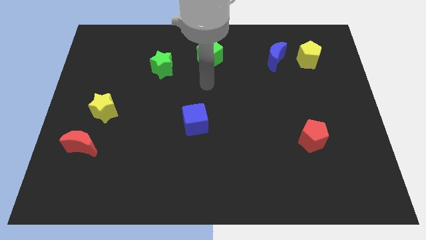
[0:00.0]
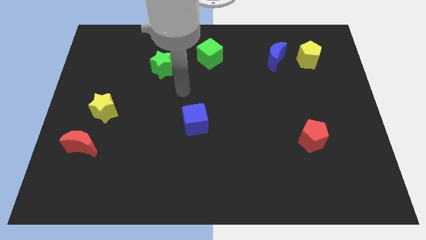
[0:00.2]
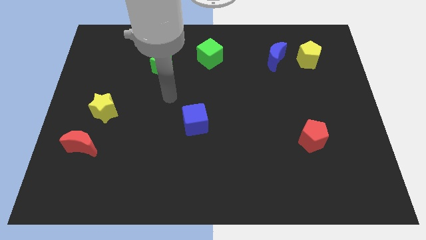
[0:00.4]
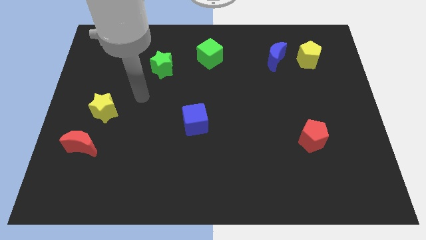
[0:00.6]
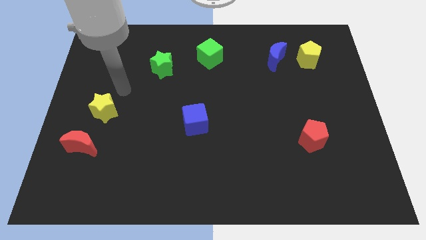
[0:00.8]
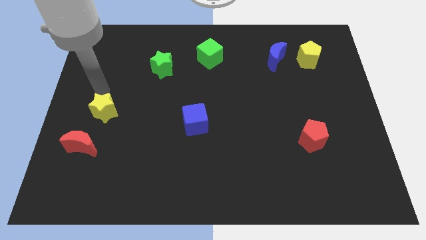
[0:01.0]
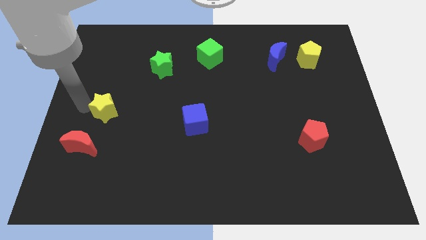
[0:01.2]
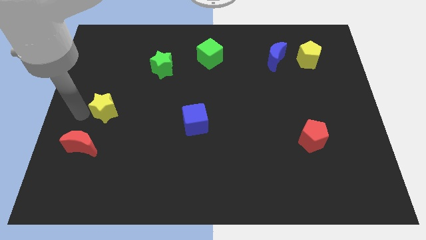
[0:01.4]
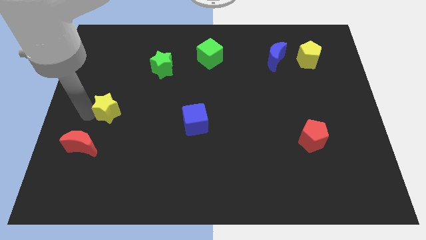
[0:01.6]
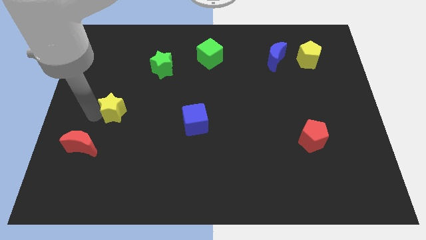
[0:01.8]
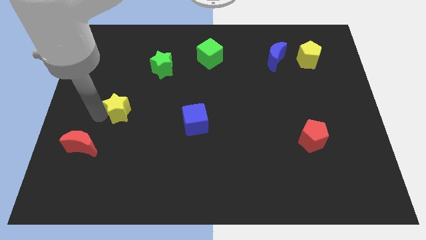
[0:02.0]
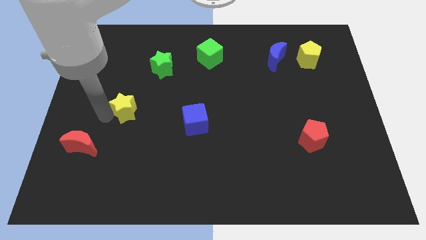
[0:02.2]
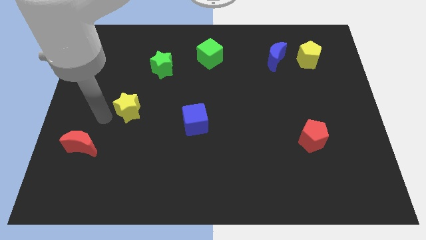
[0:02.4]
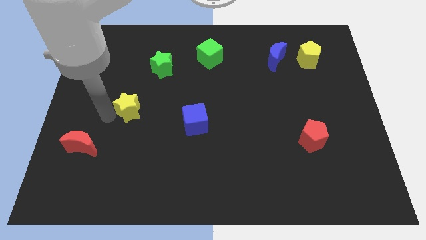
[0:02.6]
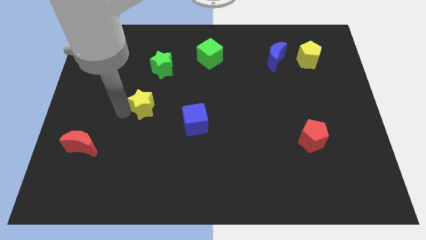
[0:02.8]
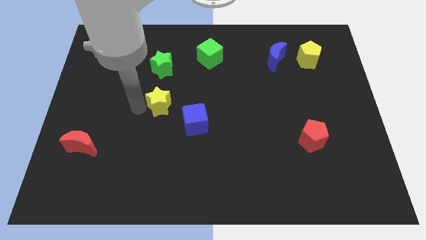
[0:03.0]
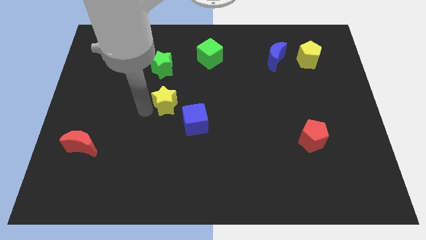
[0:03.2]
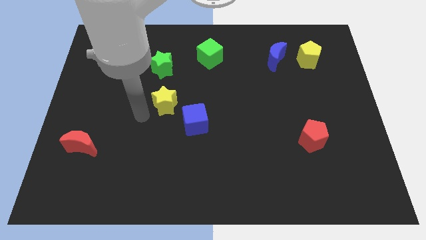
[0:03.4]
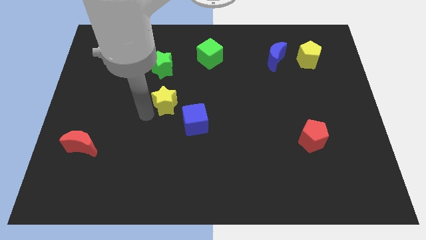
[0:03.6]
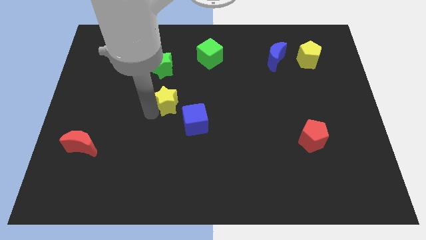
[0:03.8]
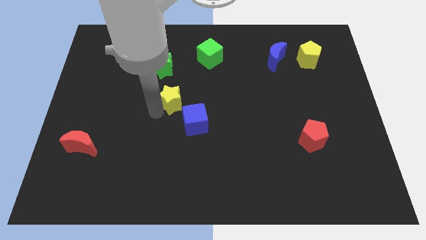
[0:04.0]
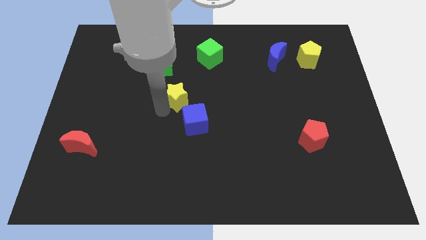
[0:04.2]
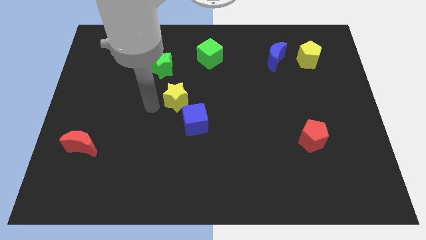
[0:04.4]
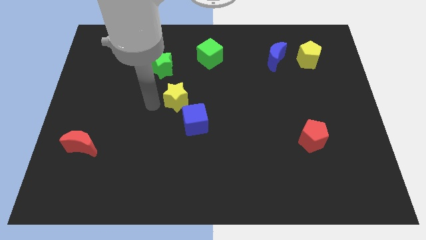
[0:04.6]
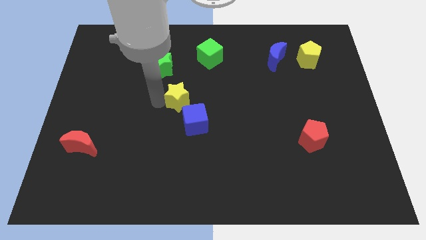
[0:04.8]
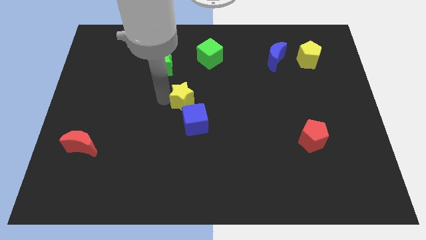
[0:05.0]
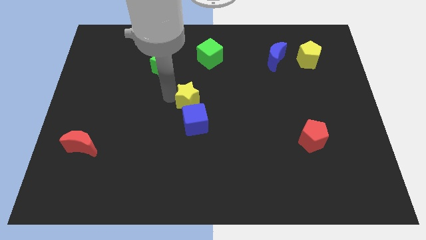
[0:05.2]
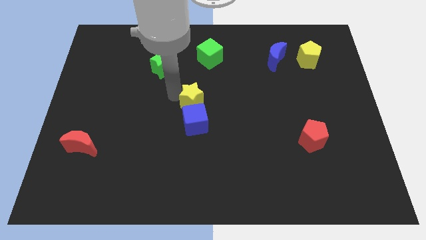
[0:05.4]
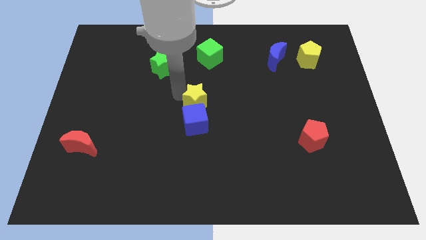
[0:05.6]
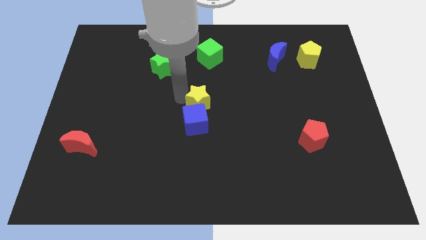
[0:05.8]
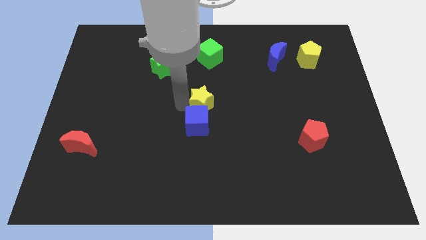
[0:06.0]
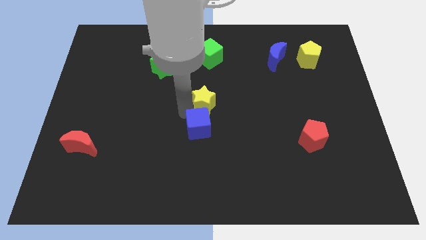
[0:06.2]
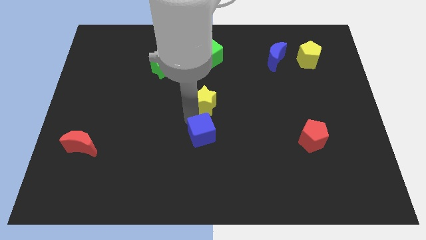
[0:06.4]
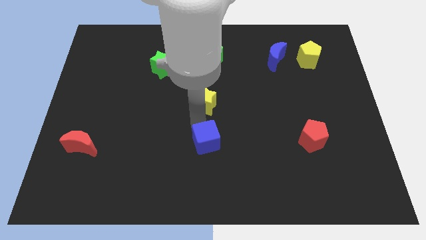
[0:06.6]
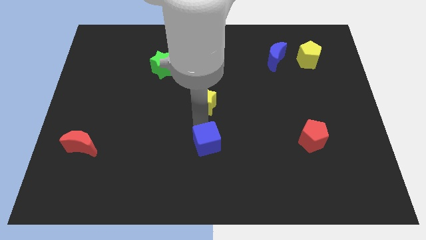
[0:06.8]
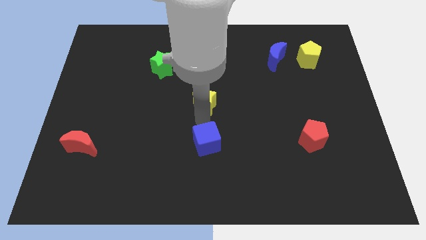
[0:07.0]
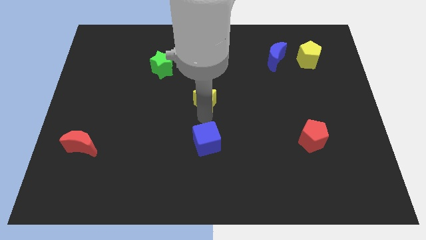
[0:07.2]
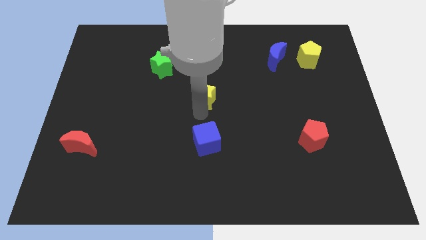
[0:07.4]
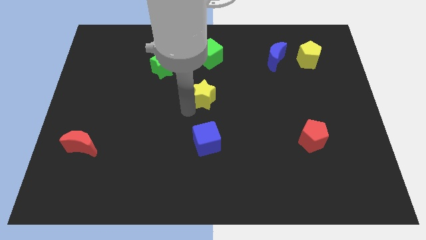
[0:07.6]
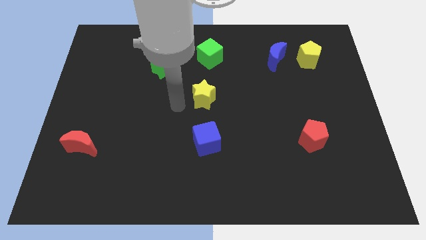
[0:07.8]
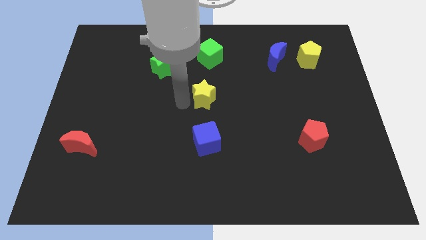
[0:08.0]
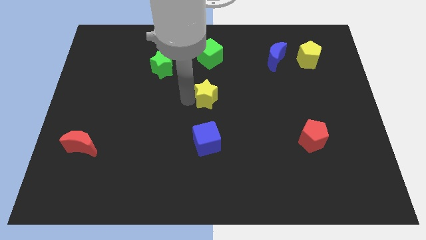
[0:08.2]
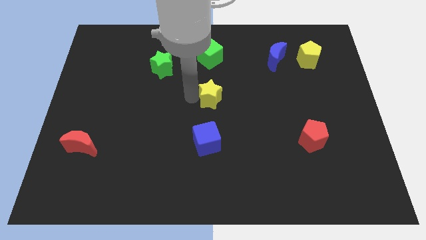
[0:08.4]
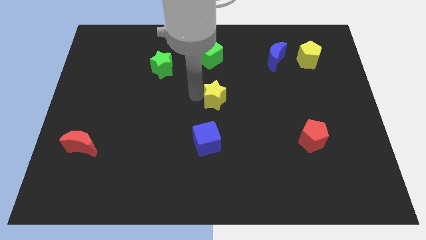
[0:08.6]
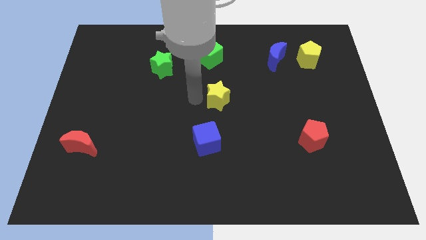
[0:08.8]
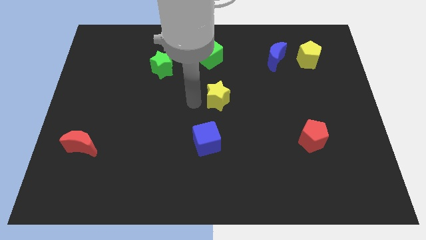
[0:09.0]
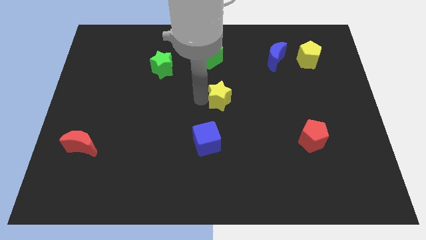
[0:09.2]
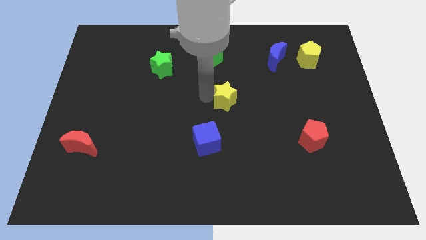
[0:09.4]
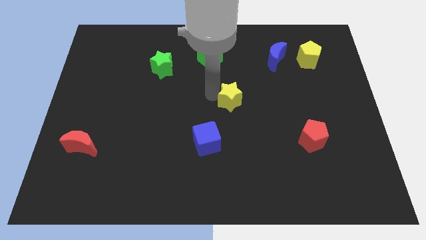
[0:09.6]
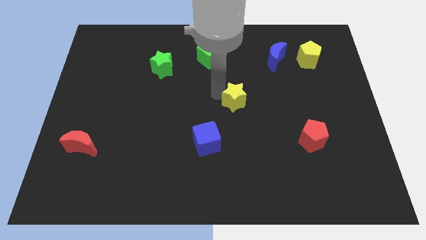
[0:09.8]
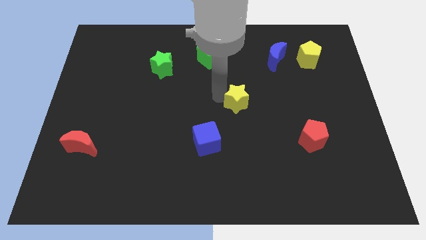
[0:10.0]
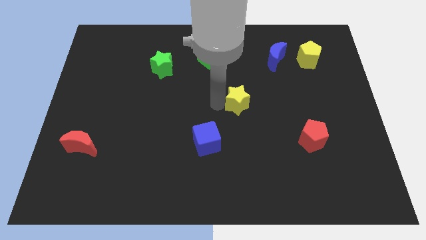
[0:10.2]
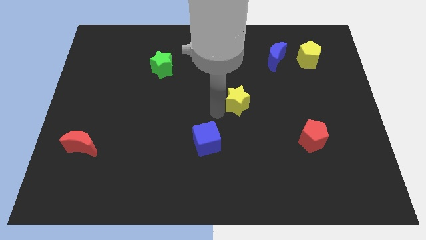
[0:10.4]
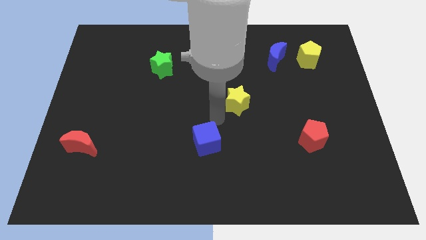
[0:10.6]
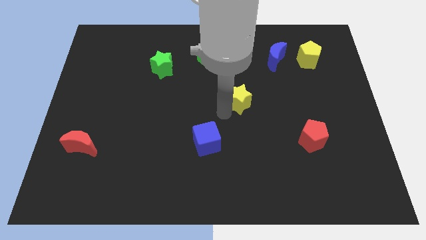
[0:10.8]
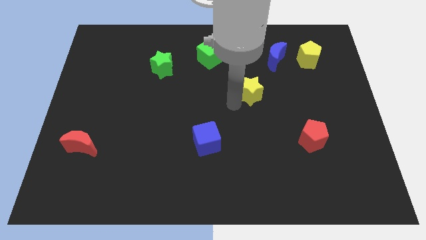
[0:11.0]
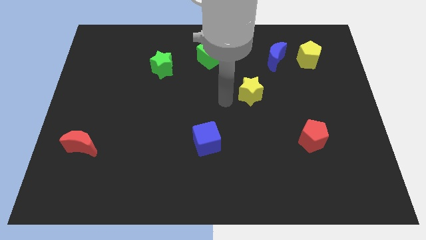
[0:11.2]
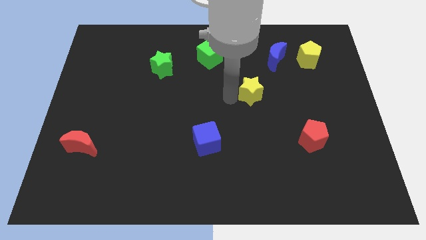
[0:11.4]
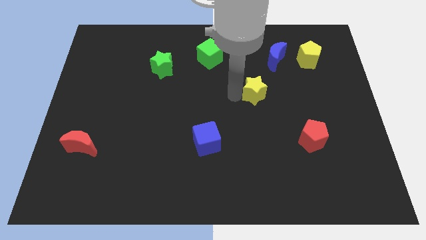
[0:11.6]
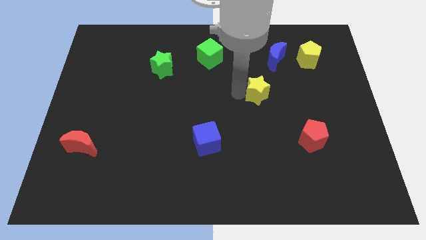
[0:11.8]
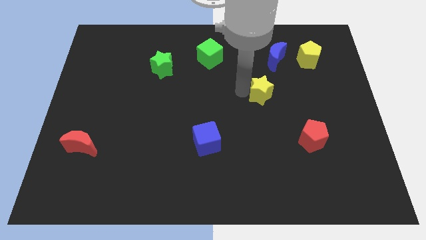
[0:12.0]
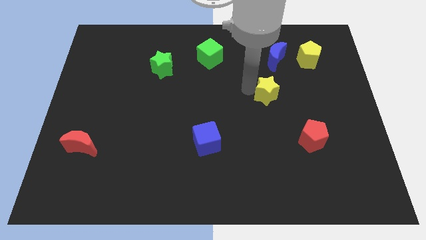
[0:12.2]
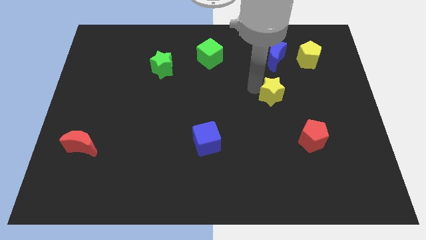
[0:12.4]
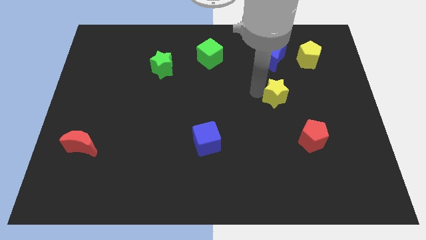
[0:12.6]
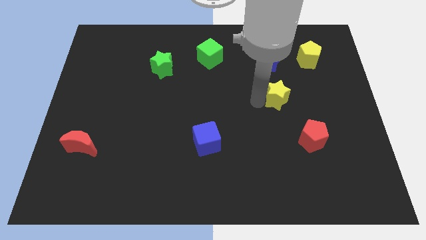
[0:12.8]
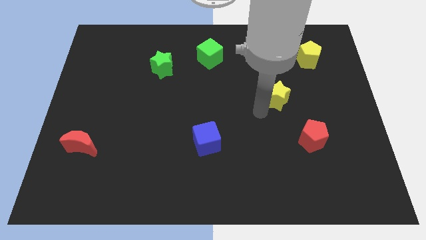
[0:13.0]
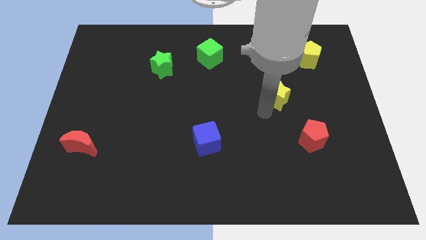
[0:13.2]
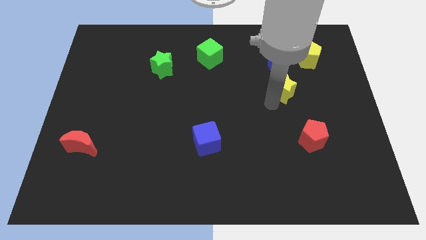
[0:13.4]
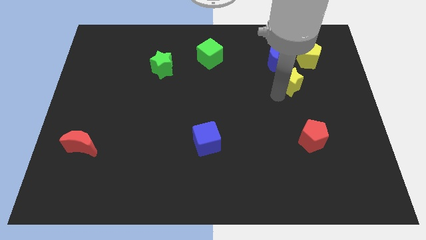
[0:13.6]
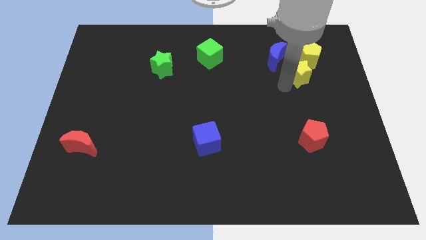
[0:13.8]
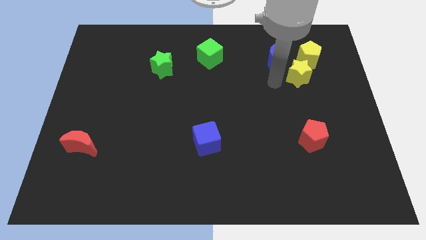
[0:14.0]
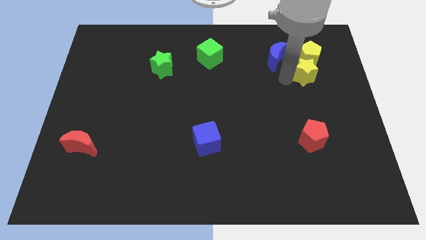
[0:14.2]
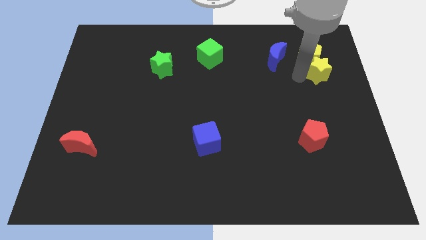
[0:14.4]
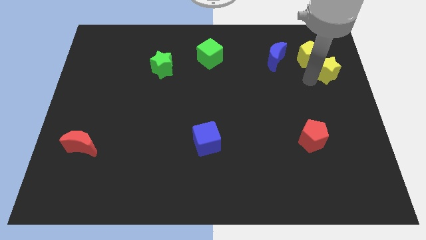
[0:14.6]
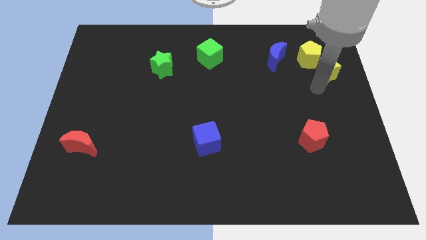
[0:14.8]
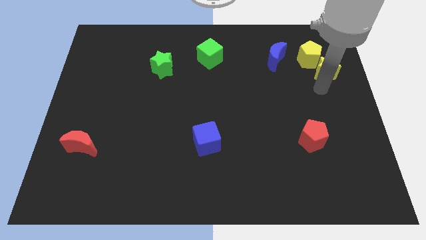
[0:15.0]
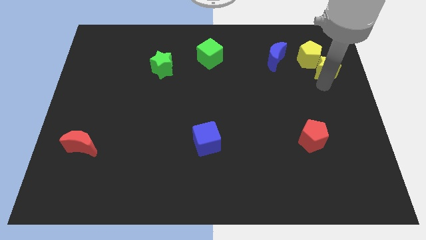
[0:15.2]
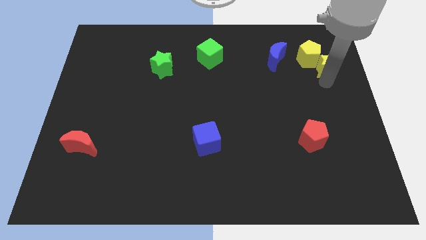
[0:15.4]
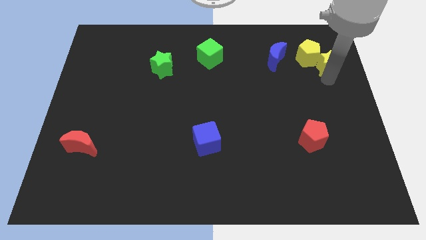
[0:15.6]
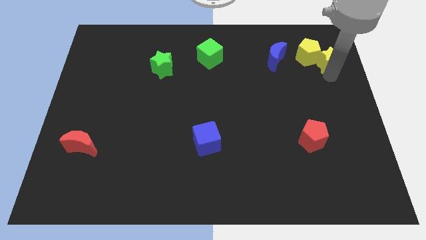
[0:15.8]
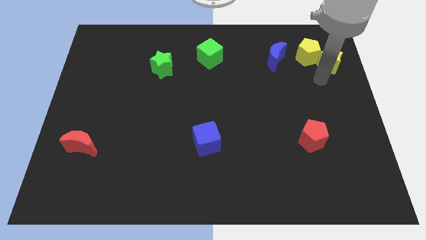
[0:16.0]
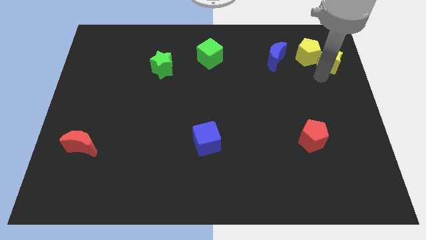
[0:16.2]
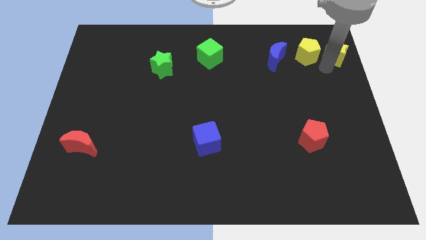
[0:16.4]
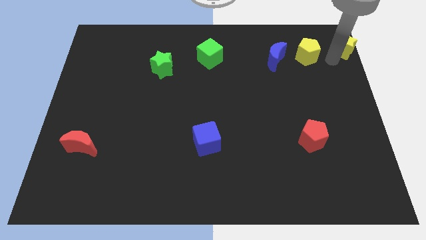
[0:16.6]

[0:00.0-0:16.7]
slide the yellow star to the top right
